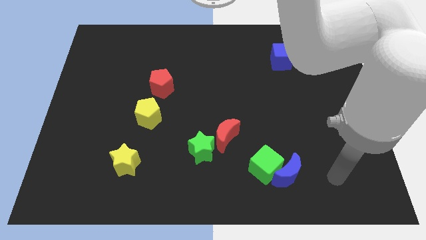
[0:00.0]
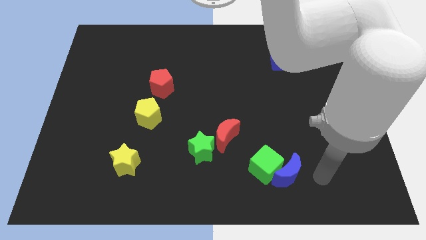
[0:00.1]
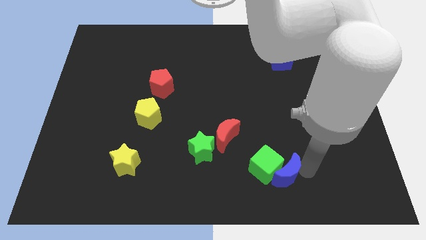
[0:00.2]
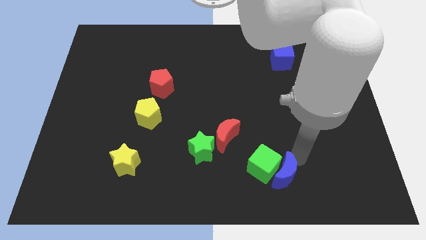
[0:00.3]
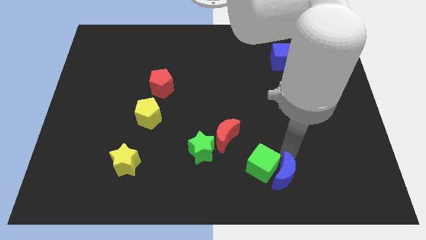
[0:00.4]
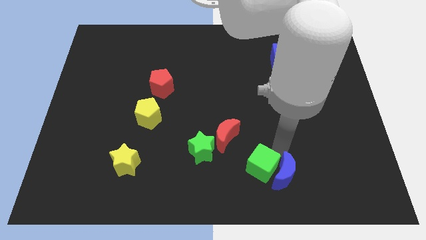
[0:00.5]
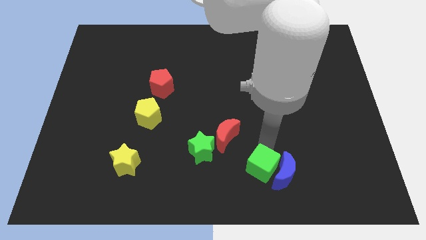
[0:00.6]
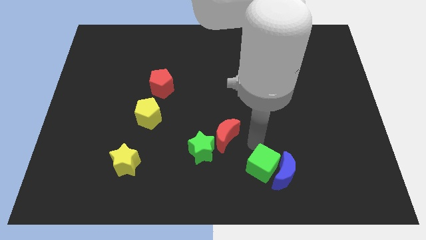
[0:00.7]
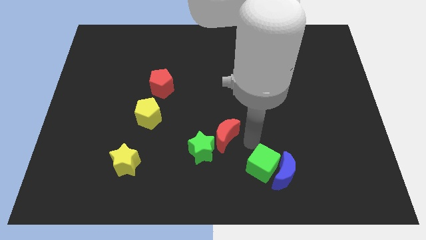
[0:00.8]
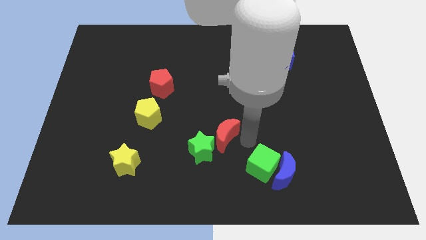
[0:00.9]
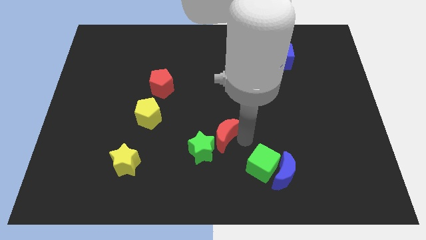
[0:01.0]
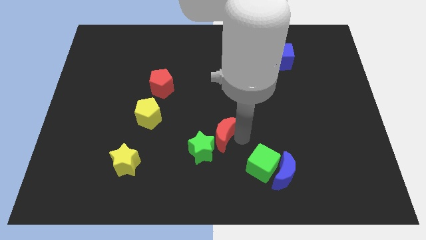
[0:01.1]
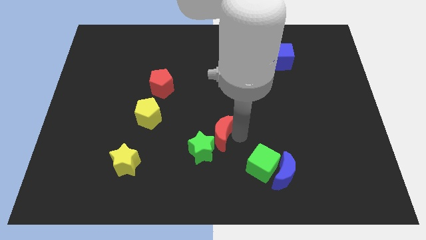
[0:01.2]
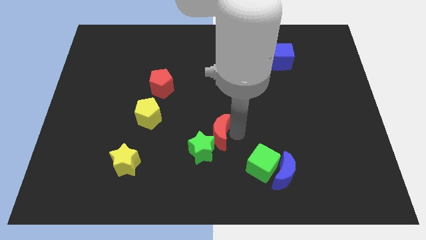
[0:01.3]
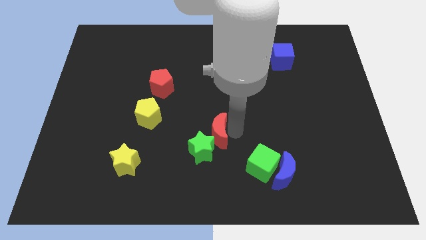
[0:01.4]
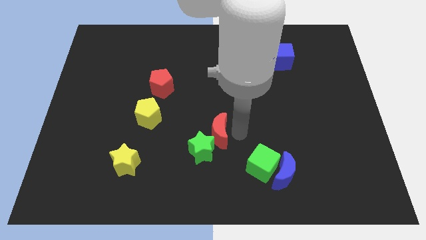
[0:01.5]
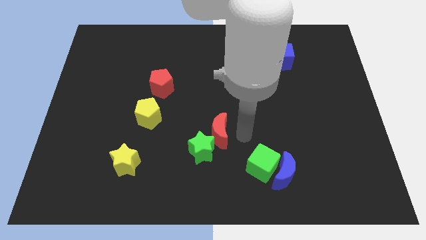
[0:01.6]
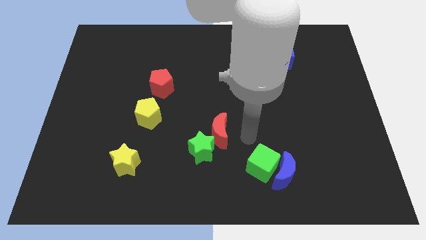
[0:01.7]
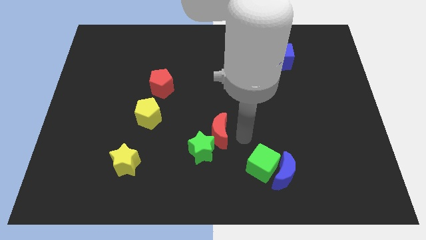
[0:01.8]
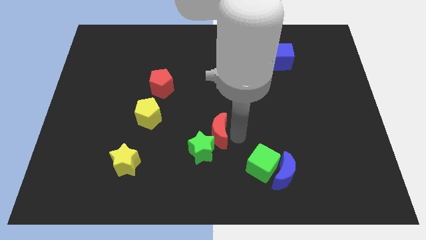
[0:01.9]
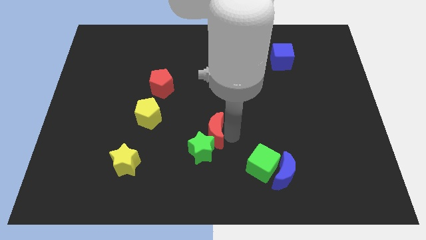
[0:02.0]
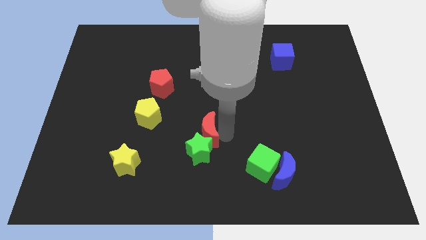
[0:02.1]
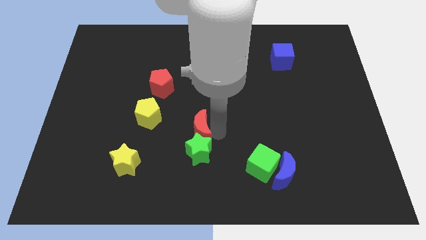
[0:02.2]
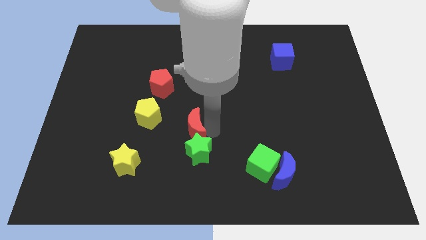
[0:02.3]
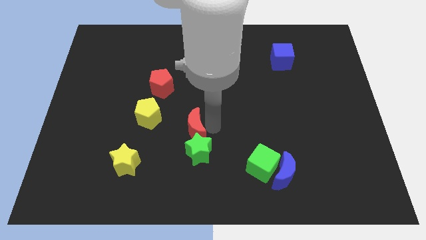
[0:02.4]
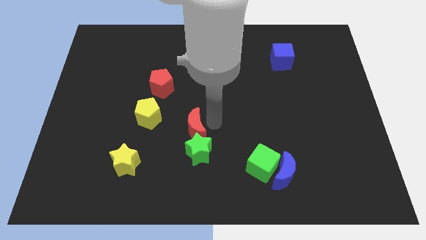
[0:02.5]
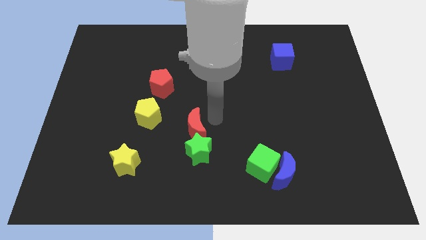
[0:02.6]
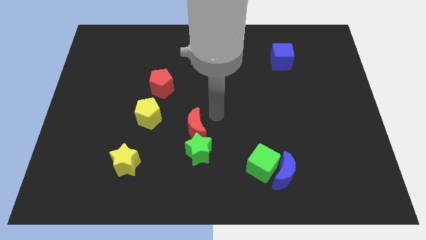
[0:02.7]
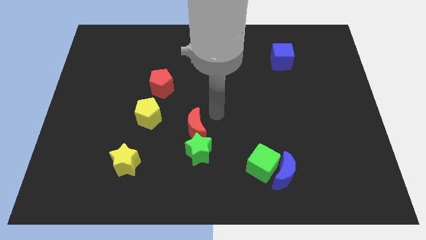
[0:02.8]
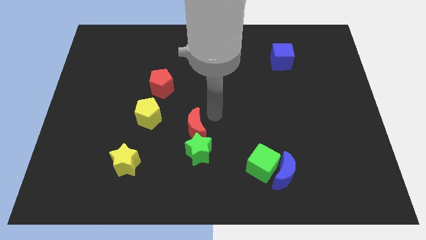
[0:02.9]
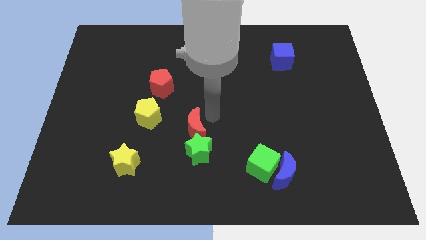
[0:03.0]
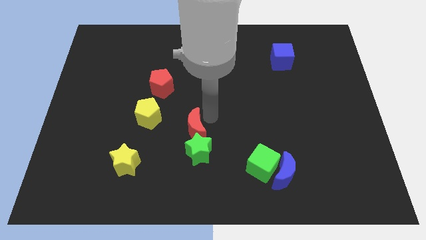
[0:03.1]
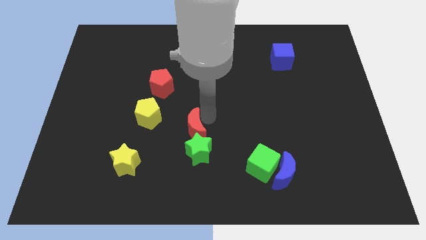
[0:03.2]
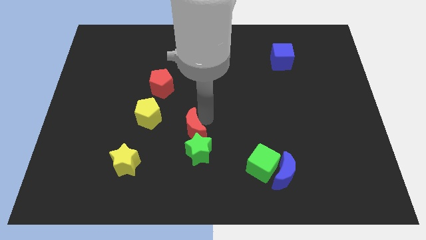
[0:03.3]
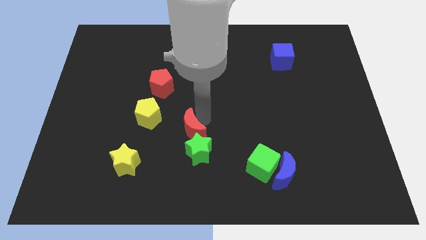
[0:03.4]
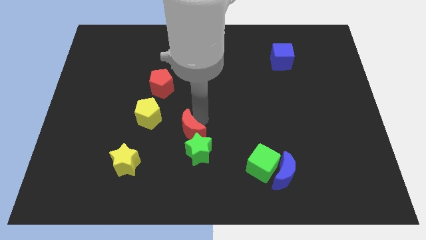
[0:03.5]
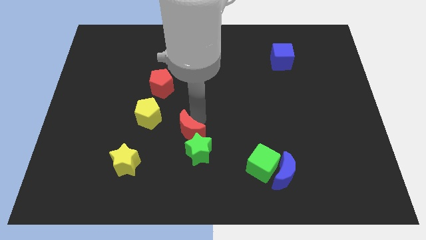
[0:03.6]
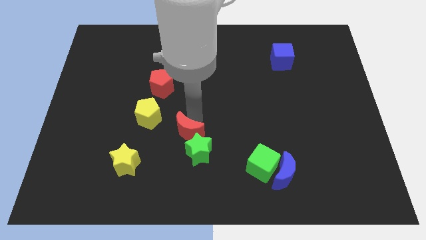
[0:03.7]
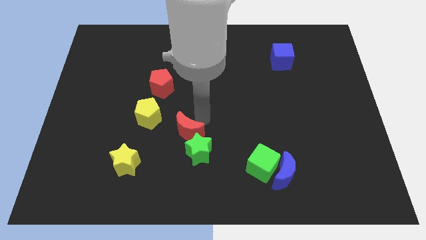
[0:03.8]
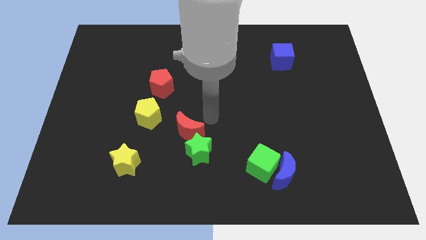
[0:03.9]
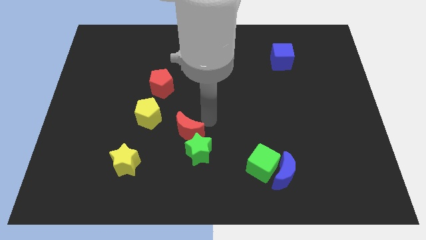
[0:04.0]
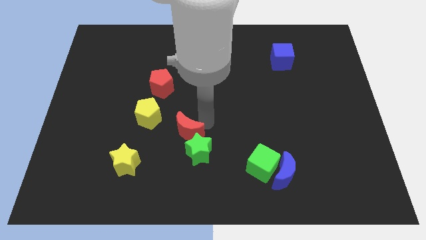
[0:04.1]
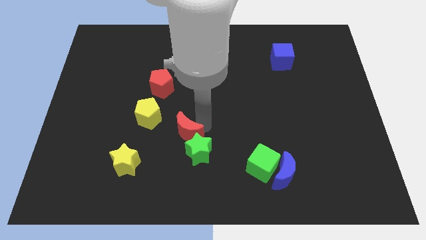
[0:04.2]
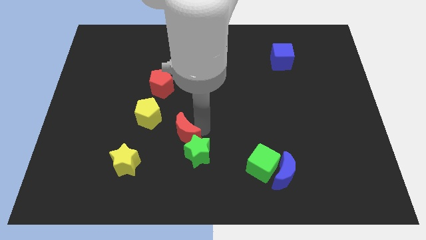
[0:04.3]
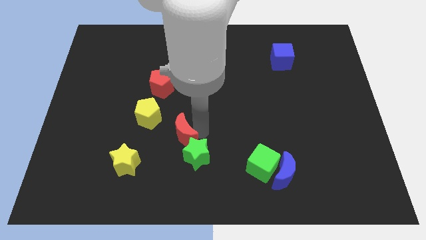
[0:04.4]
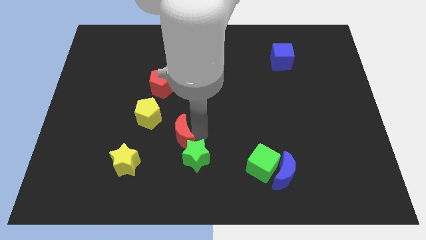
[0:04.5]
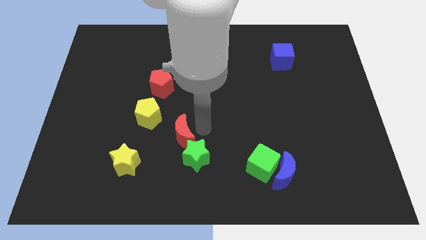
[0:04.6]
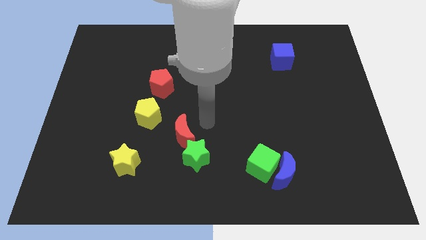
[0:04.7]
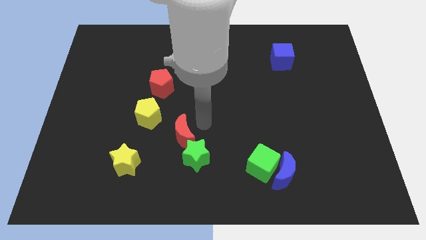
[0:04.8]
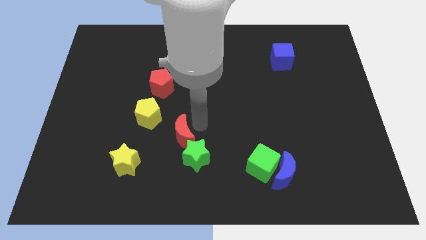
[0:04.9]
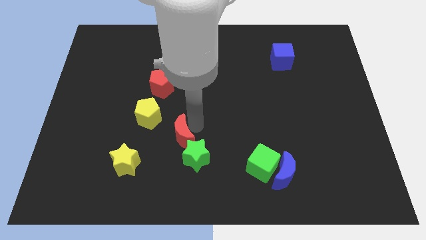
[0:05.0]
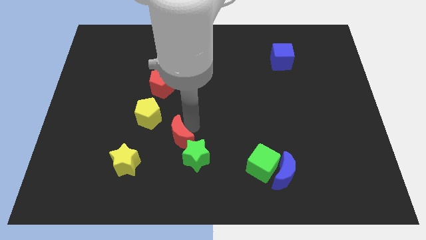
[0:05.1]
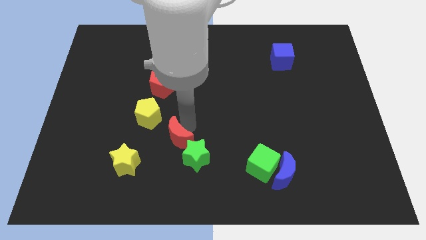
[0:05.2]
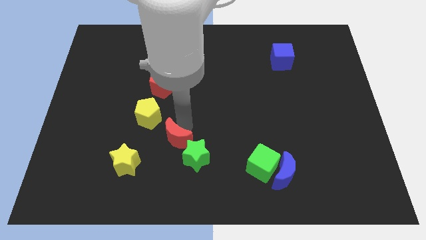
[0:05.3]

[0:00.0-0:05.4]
slide the red moon just left of the green star

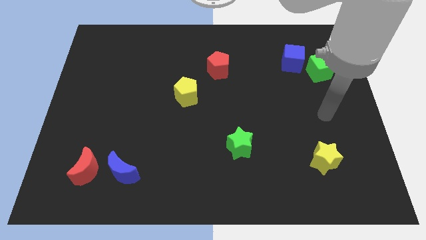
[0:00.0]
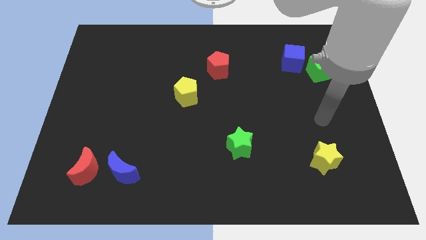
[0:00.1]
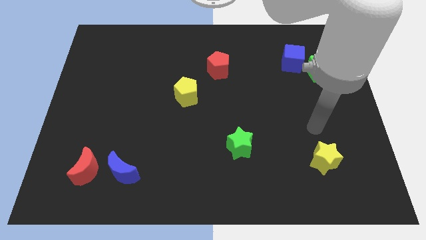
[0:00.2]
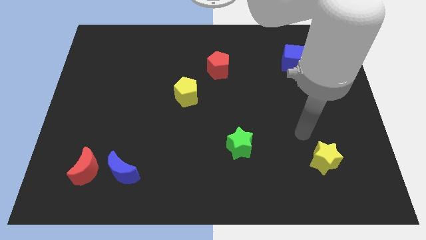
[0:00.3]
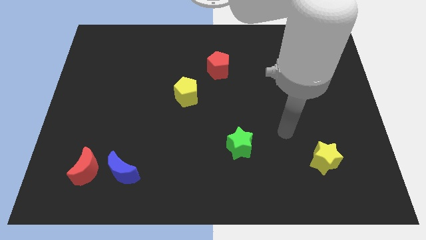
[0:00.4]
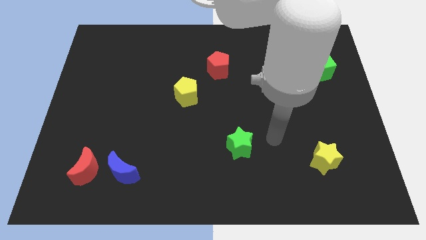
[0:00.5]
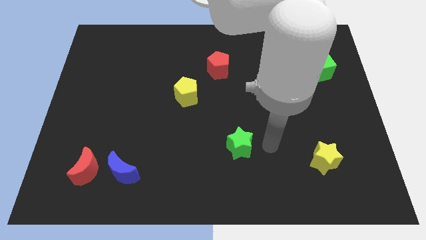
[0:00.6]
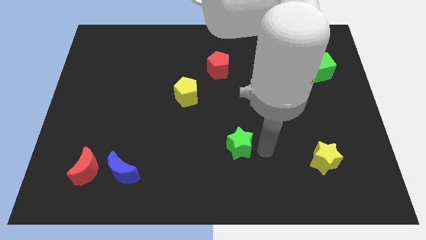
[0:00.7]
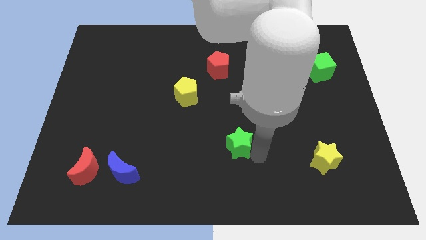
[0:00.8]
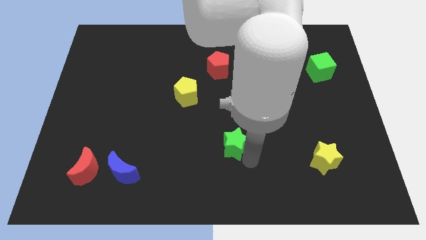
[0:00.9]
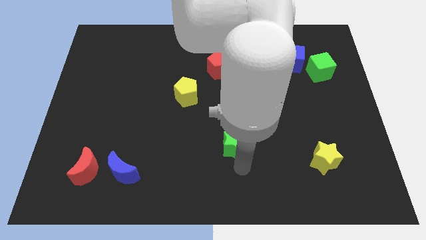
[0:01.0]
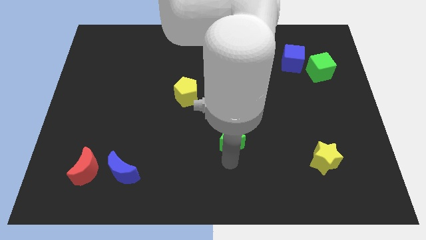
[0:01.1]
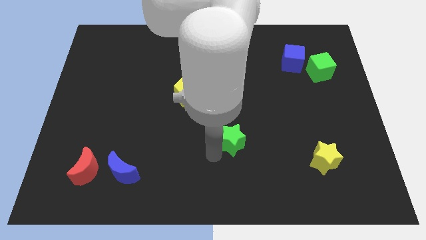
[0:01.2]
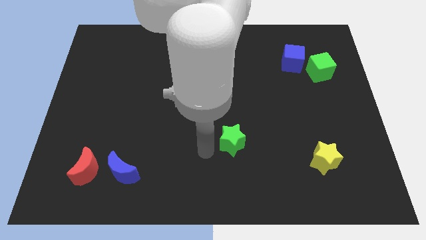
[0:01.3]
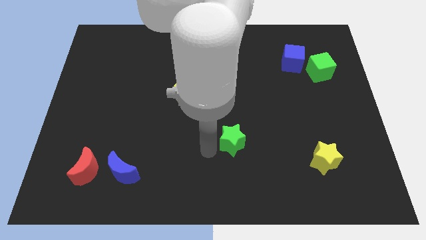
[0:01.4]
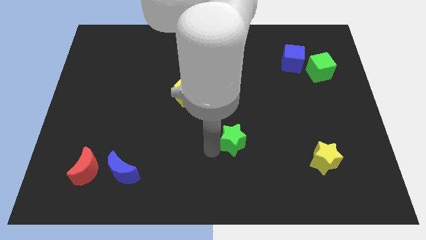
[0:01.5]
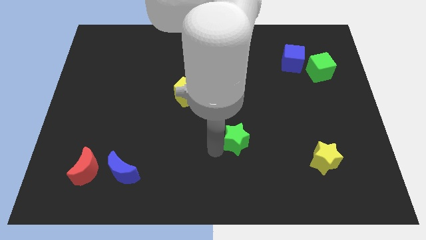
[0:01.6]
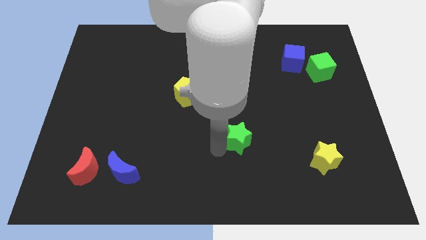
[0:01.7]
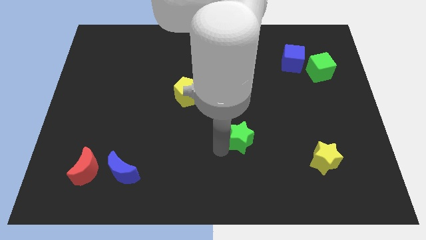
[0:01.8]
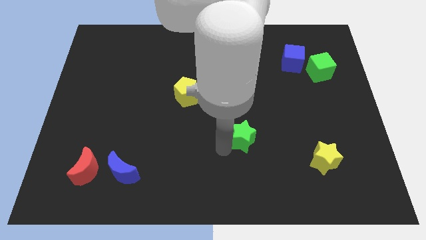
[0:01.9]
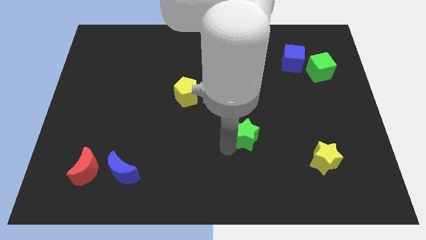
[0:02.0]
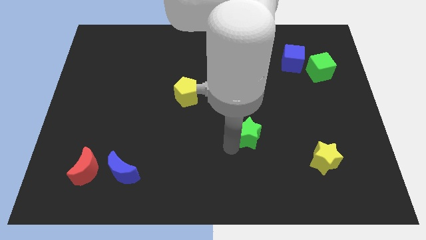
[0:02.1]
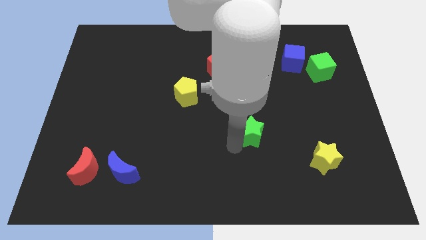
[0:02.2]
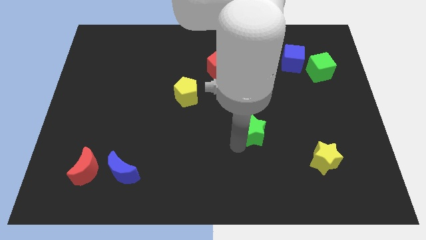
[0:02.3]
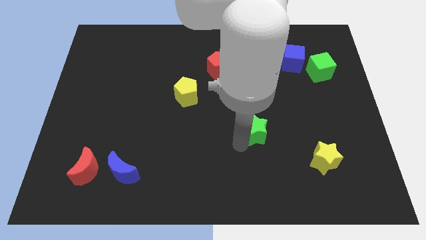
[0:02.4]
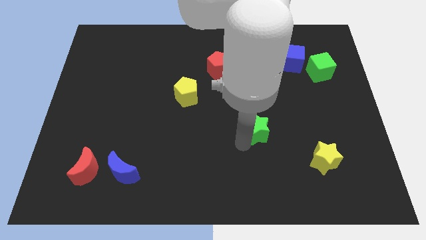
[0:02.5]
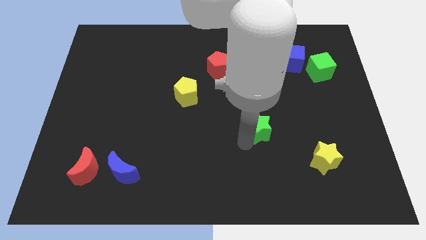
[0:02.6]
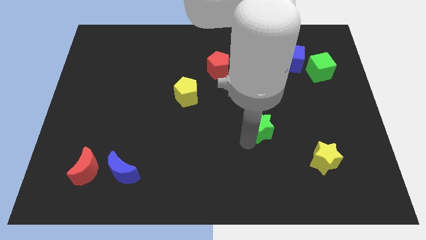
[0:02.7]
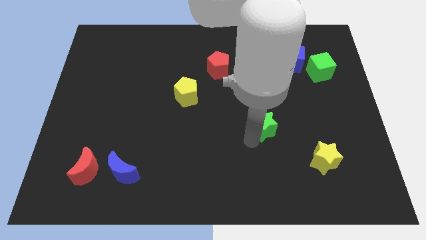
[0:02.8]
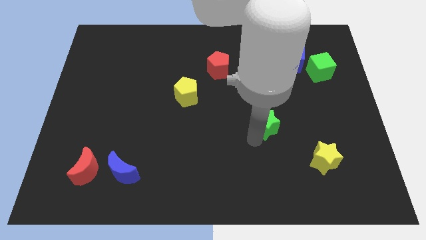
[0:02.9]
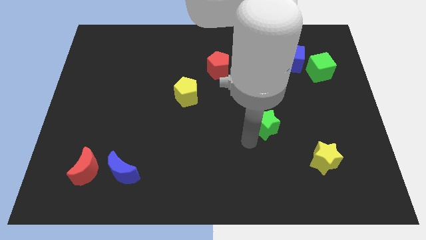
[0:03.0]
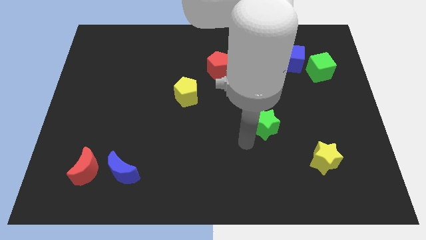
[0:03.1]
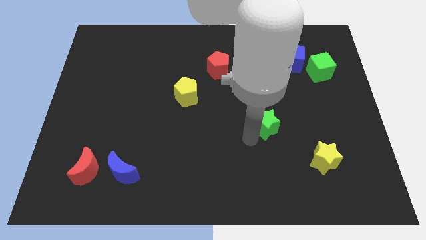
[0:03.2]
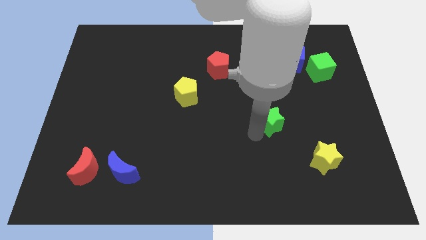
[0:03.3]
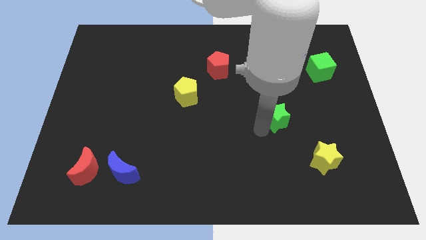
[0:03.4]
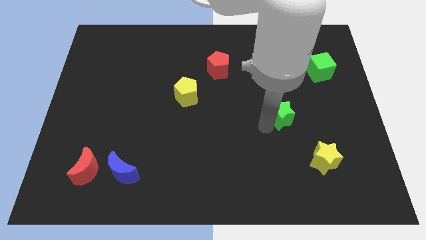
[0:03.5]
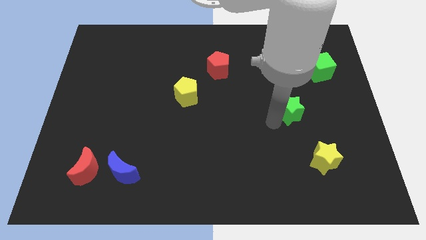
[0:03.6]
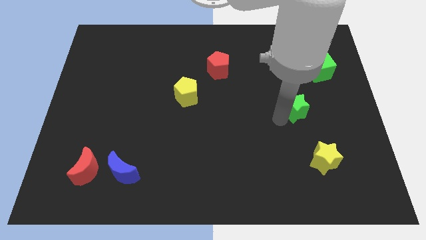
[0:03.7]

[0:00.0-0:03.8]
put the green star to the bottom side of the blue cube
